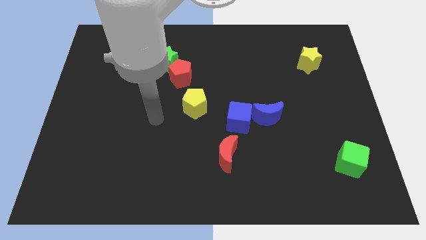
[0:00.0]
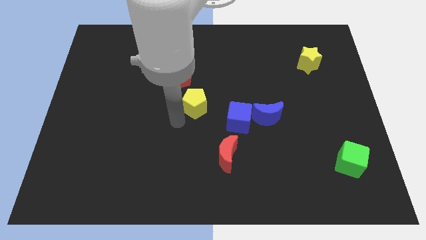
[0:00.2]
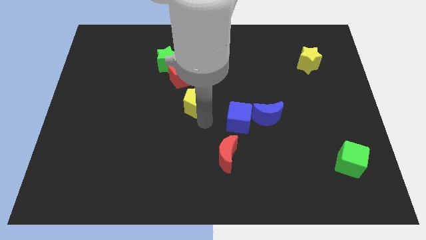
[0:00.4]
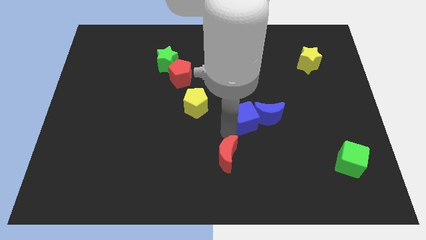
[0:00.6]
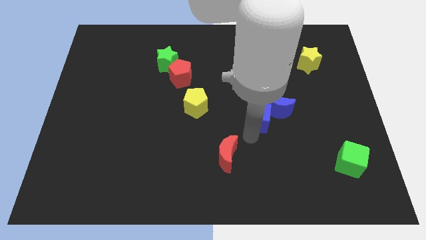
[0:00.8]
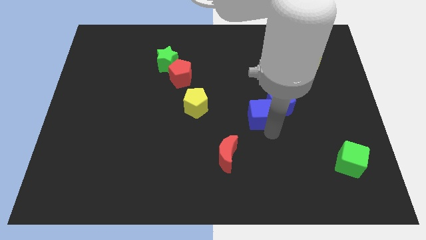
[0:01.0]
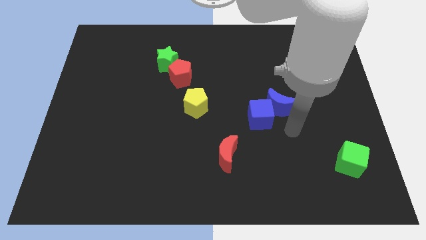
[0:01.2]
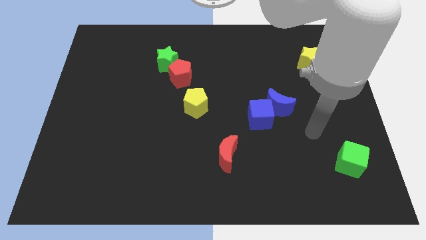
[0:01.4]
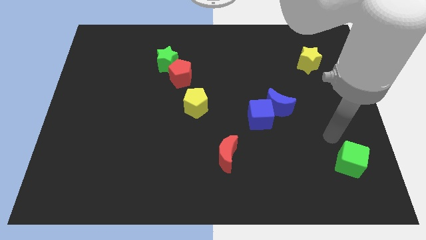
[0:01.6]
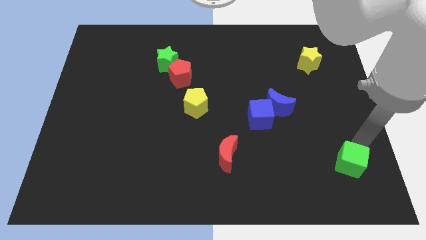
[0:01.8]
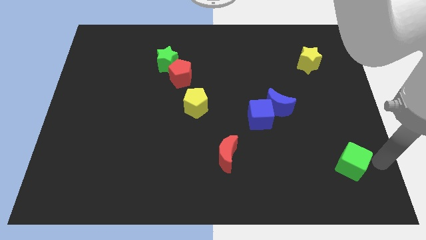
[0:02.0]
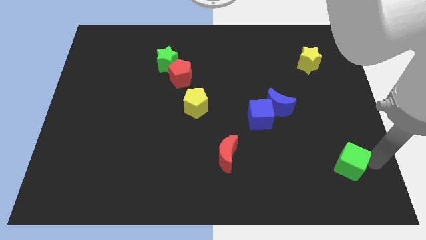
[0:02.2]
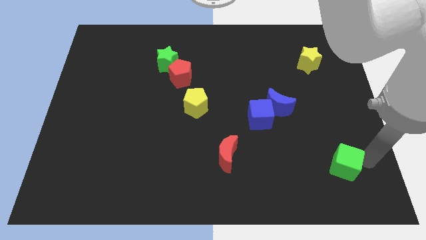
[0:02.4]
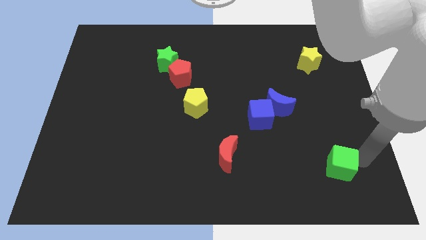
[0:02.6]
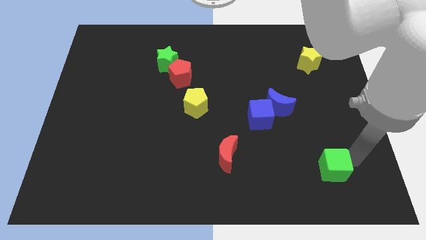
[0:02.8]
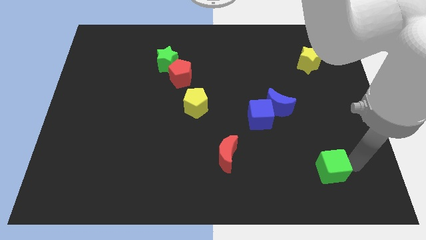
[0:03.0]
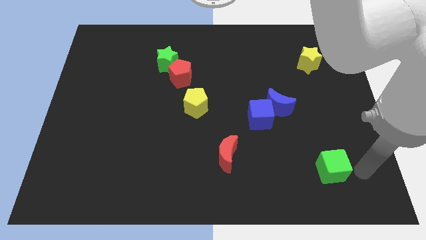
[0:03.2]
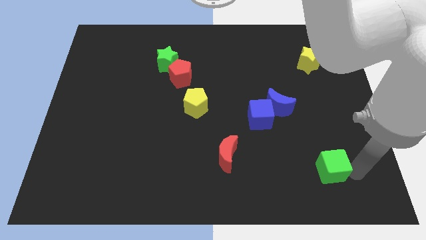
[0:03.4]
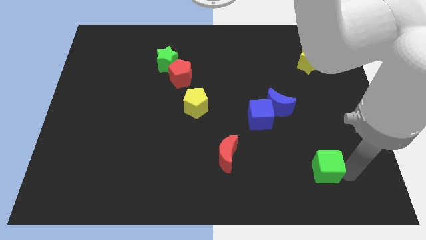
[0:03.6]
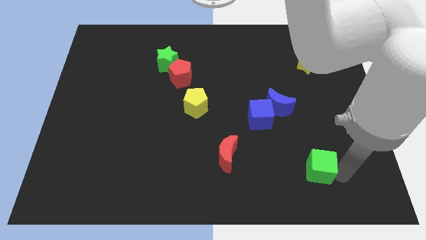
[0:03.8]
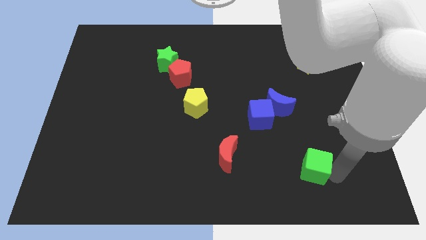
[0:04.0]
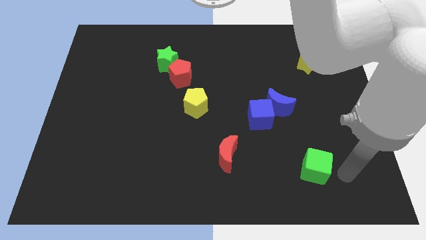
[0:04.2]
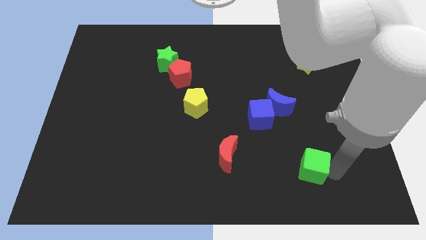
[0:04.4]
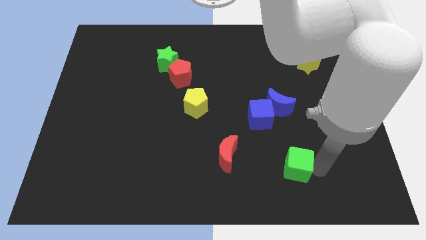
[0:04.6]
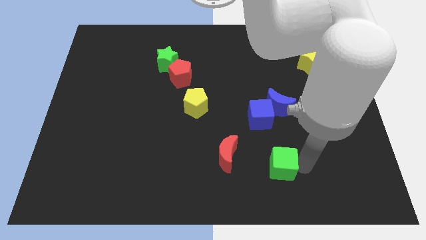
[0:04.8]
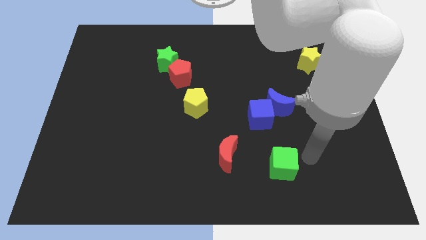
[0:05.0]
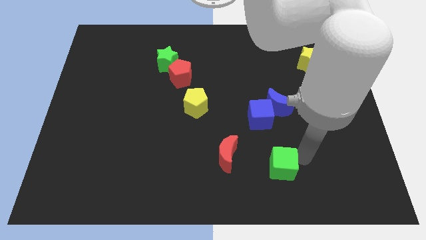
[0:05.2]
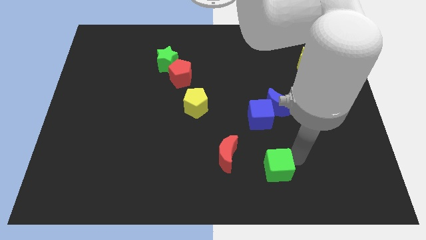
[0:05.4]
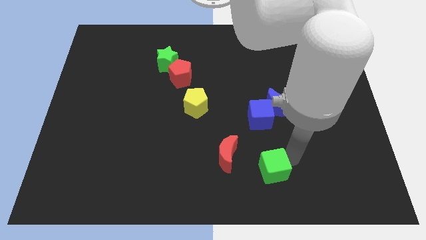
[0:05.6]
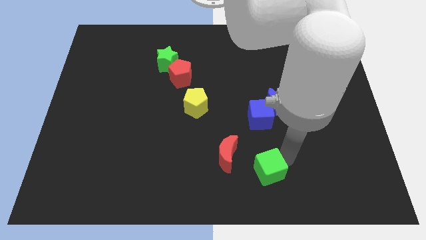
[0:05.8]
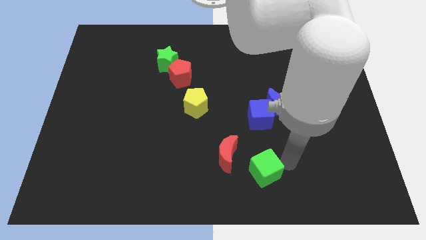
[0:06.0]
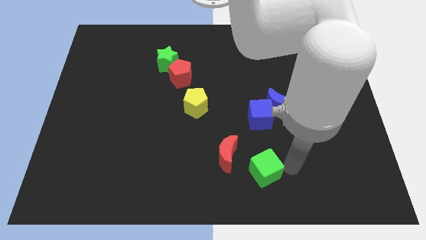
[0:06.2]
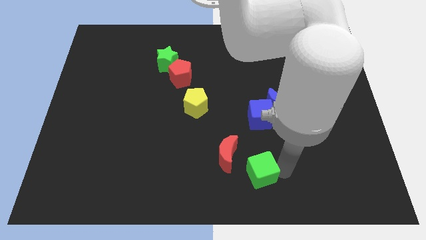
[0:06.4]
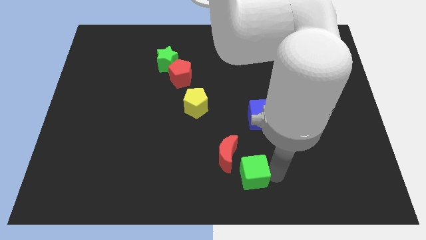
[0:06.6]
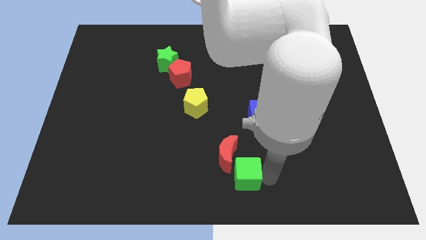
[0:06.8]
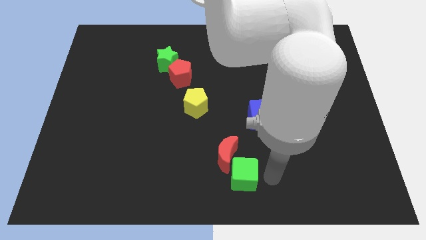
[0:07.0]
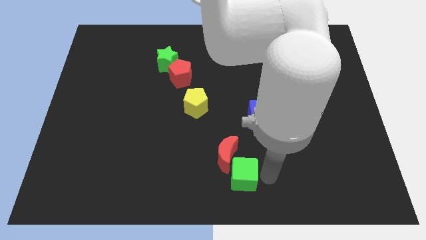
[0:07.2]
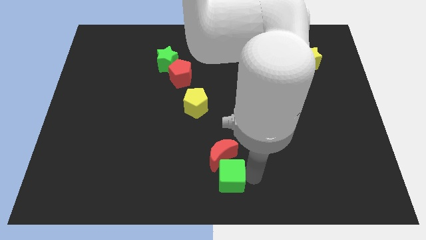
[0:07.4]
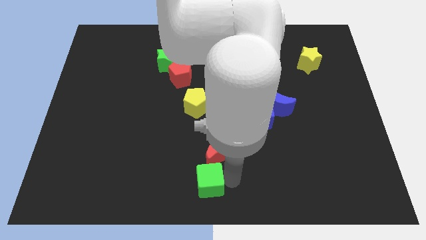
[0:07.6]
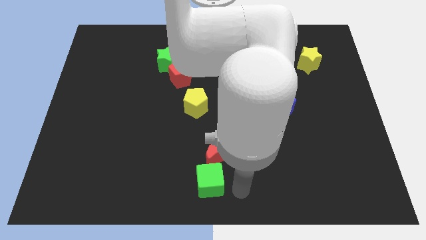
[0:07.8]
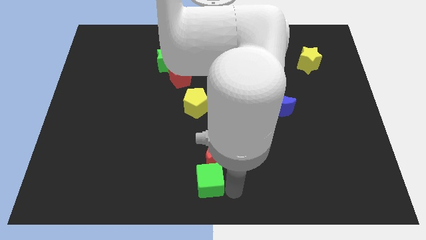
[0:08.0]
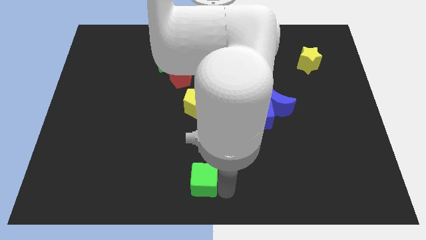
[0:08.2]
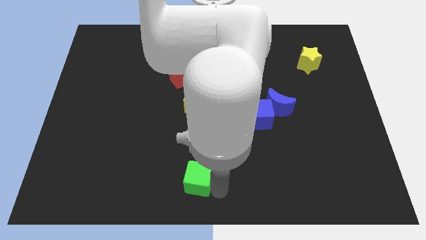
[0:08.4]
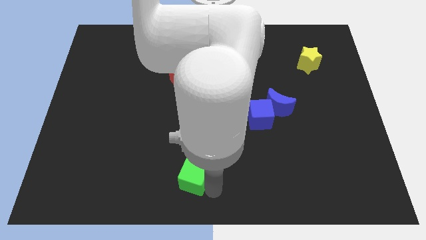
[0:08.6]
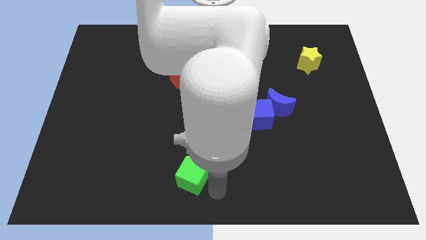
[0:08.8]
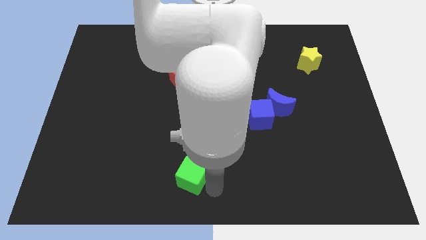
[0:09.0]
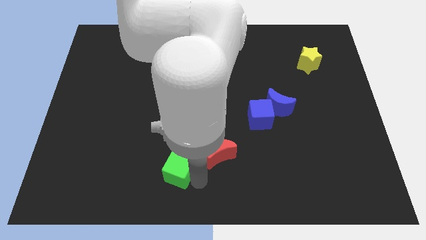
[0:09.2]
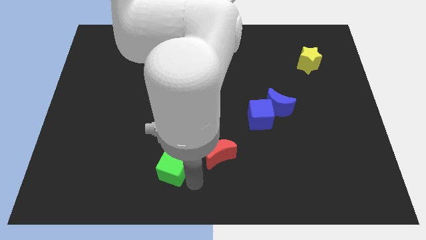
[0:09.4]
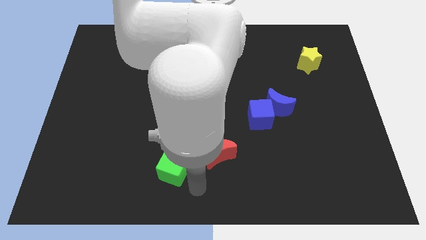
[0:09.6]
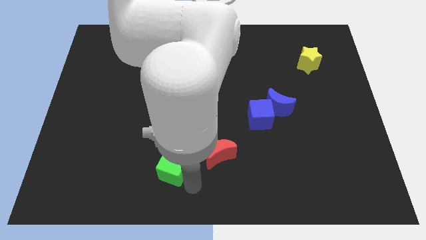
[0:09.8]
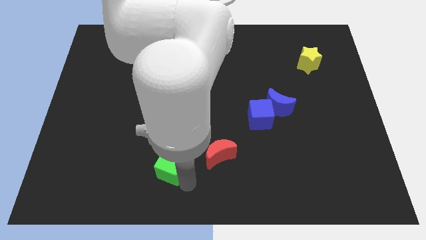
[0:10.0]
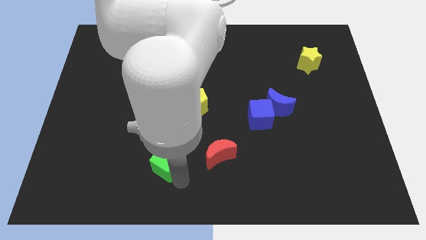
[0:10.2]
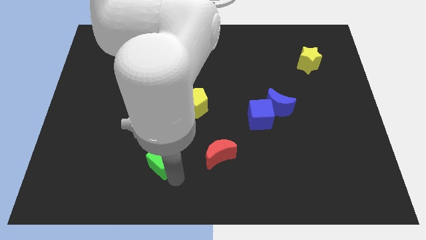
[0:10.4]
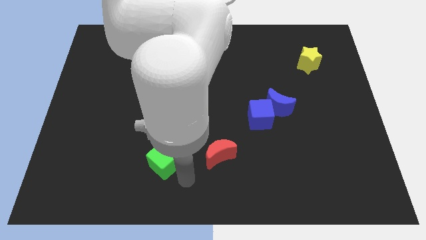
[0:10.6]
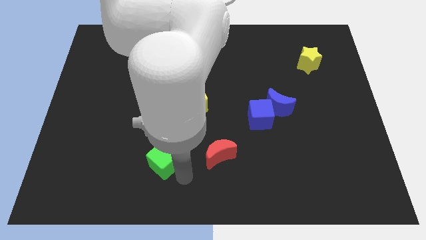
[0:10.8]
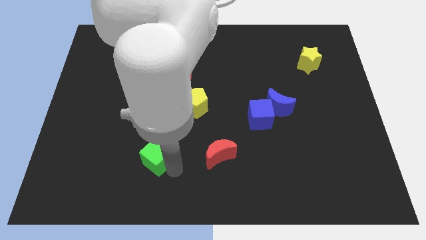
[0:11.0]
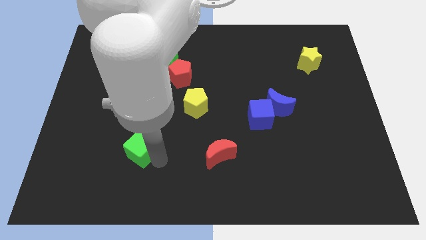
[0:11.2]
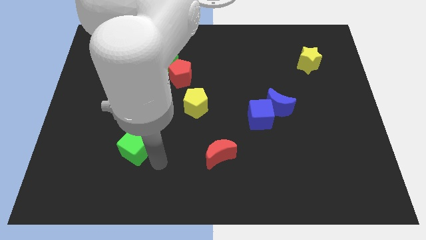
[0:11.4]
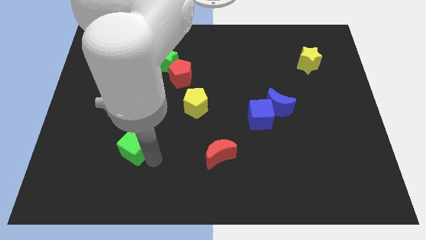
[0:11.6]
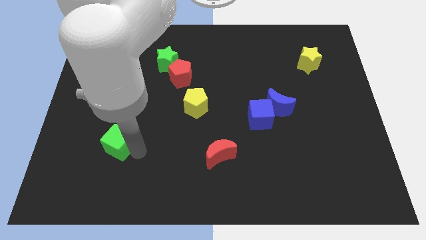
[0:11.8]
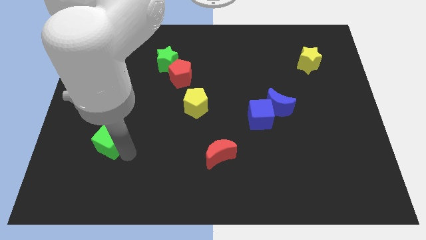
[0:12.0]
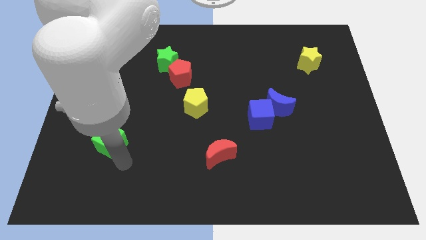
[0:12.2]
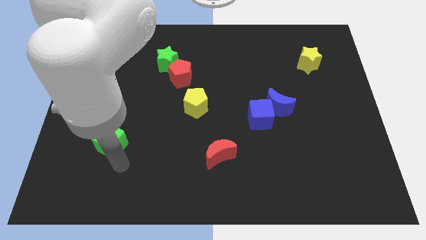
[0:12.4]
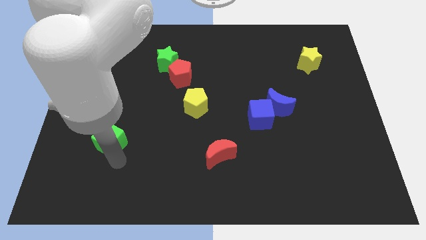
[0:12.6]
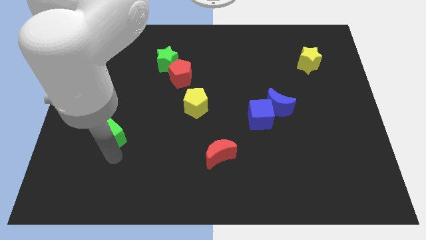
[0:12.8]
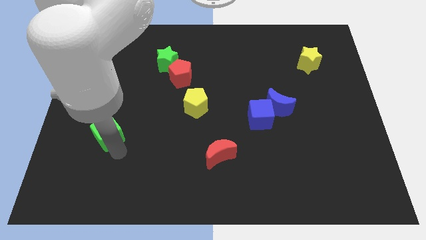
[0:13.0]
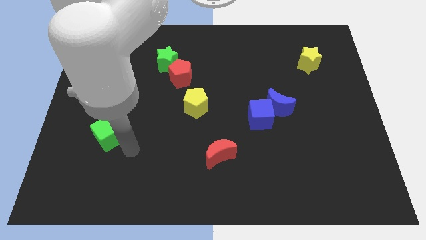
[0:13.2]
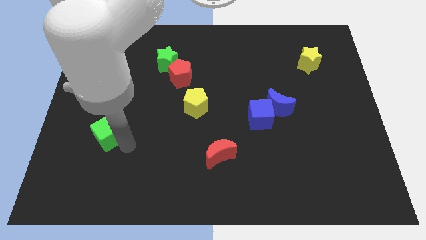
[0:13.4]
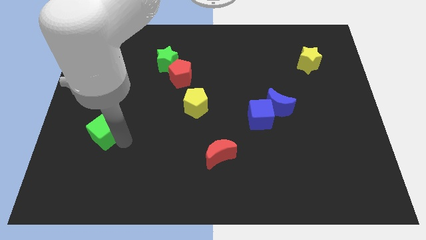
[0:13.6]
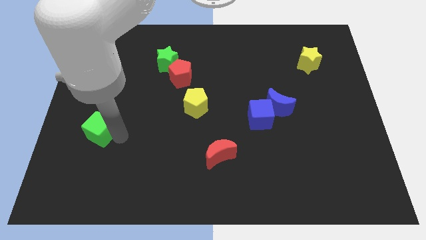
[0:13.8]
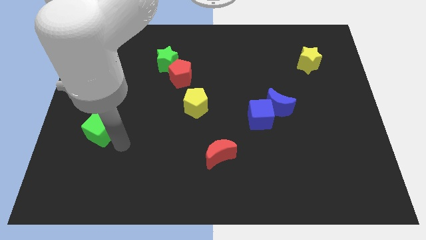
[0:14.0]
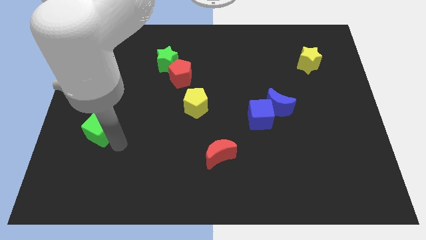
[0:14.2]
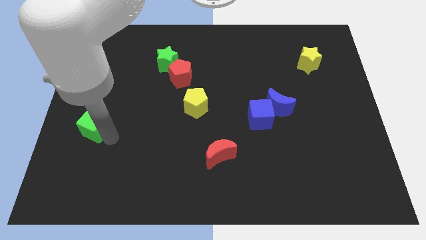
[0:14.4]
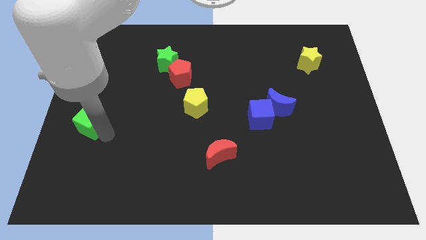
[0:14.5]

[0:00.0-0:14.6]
move the green cube to the left side
